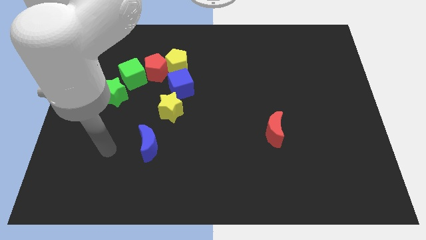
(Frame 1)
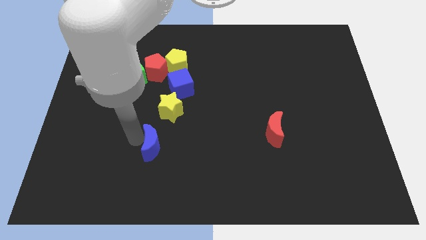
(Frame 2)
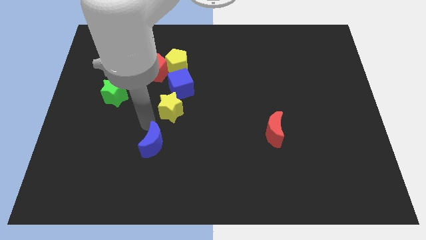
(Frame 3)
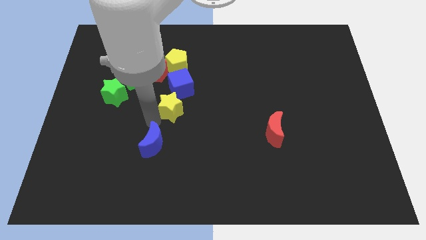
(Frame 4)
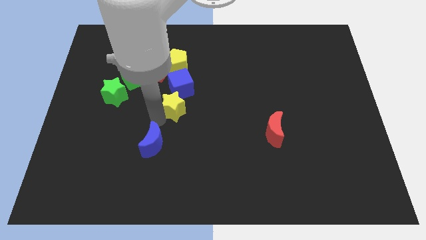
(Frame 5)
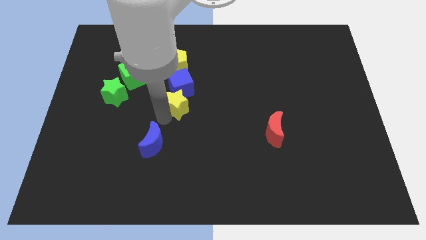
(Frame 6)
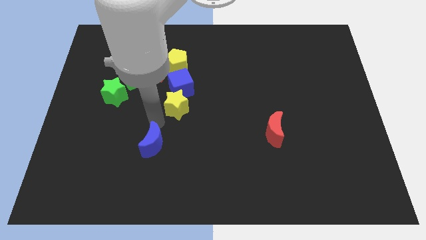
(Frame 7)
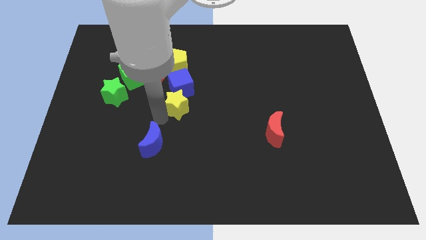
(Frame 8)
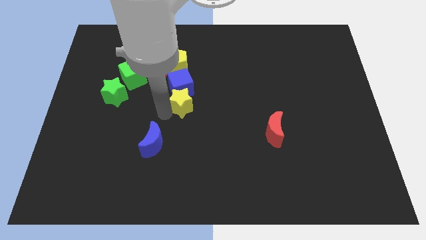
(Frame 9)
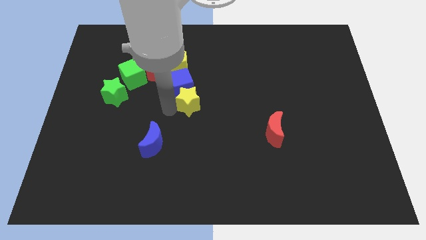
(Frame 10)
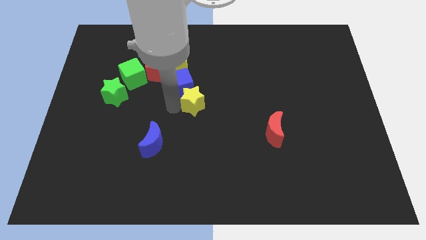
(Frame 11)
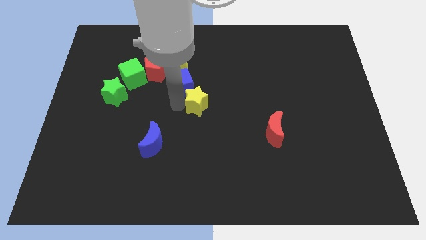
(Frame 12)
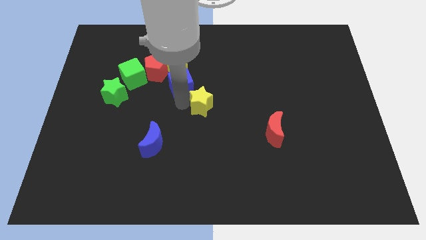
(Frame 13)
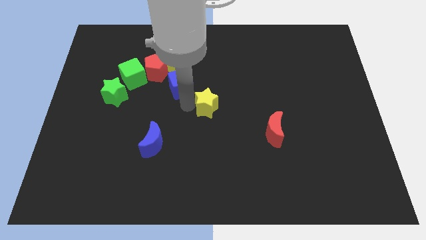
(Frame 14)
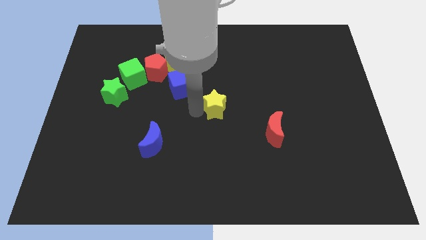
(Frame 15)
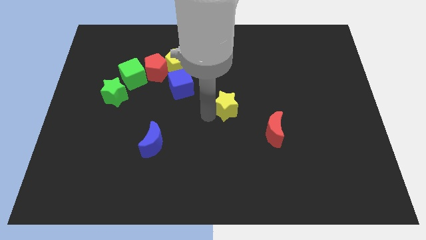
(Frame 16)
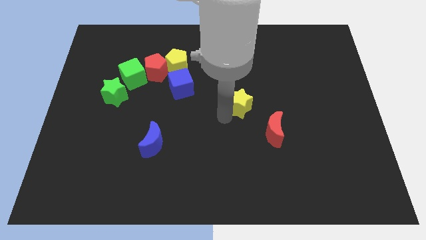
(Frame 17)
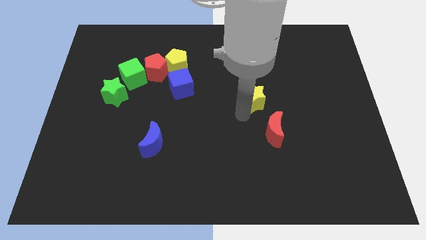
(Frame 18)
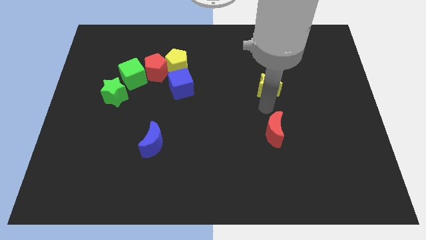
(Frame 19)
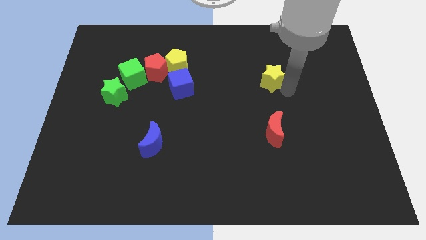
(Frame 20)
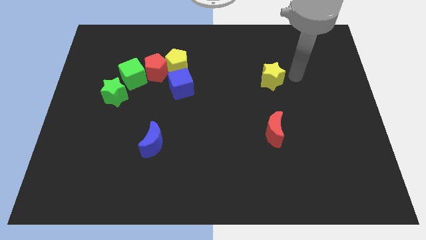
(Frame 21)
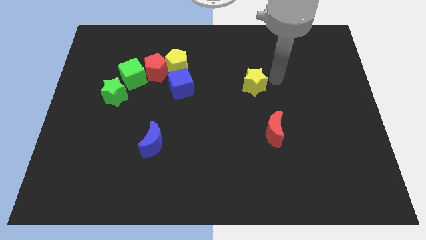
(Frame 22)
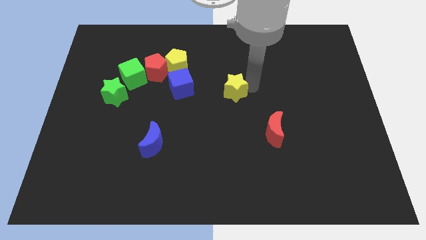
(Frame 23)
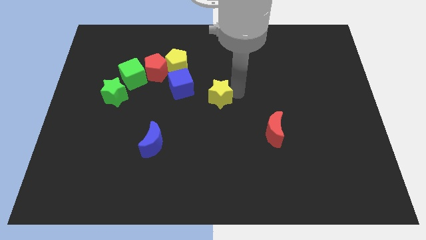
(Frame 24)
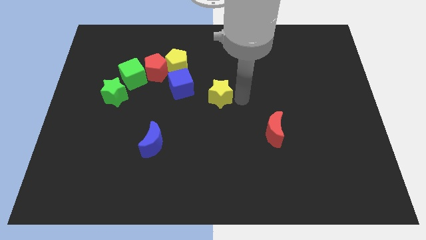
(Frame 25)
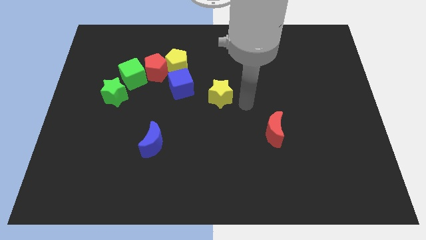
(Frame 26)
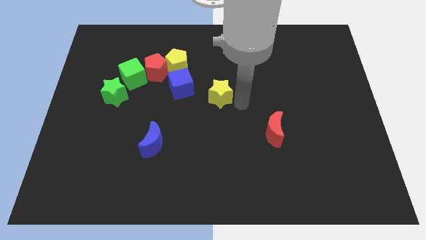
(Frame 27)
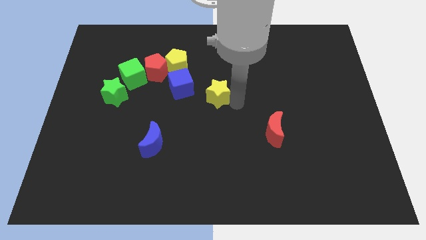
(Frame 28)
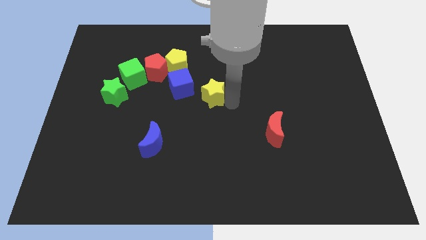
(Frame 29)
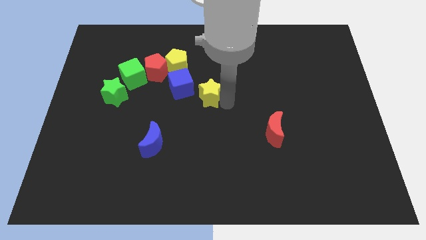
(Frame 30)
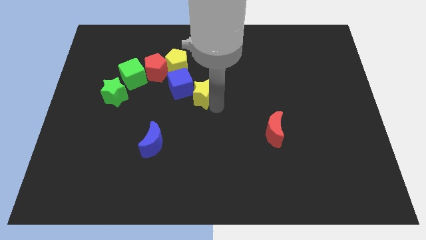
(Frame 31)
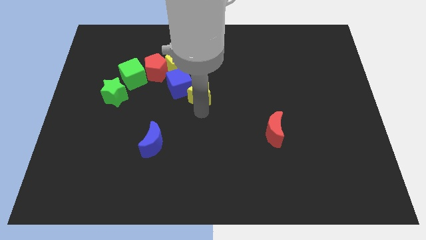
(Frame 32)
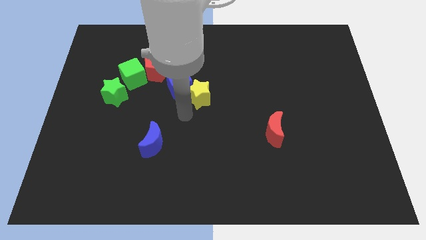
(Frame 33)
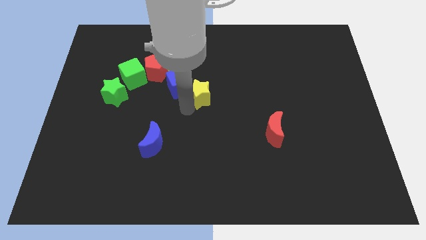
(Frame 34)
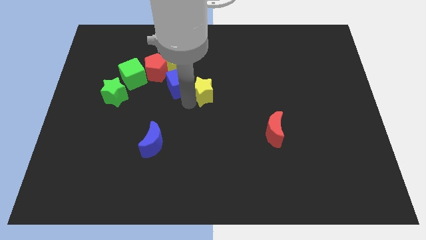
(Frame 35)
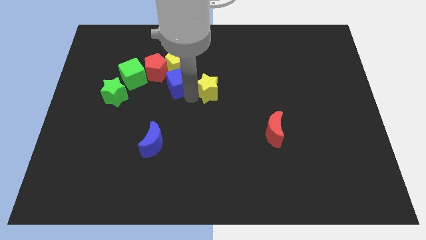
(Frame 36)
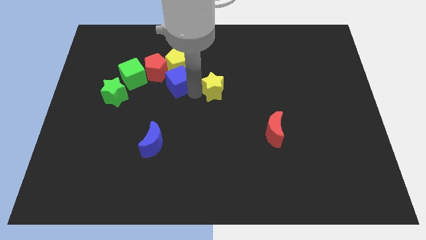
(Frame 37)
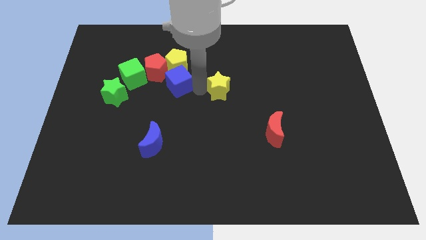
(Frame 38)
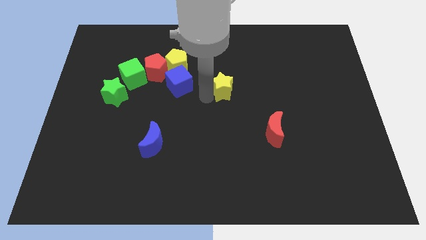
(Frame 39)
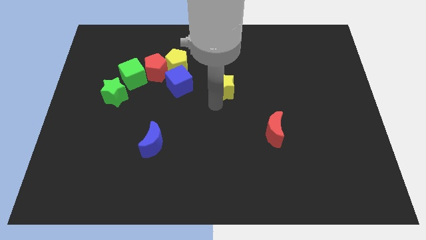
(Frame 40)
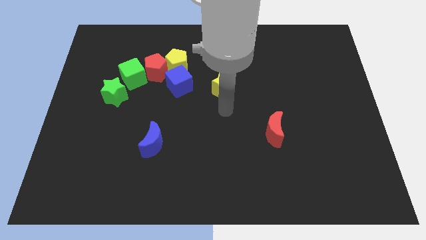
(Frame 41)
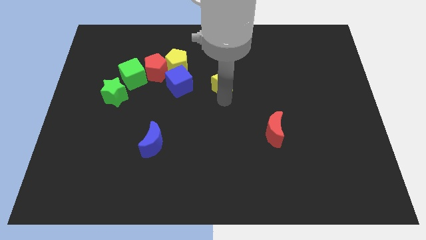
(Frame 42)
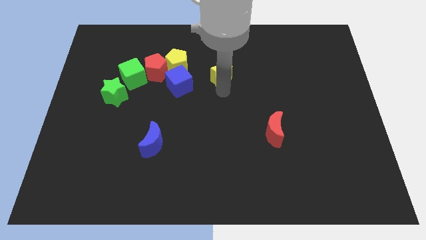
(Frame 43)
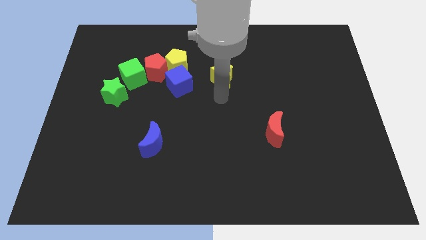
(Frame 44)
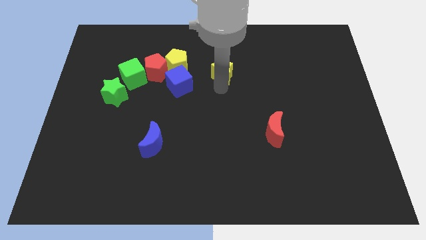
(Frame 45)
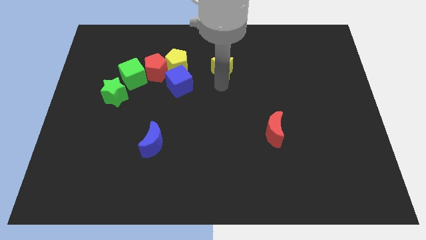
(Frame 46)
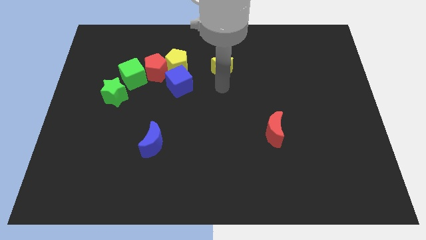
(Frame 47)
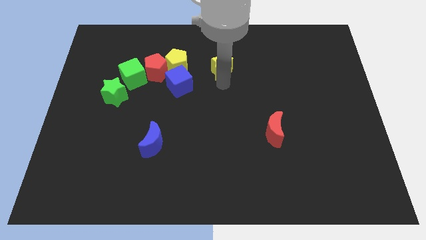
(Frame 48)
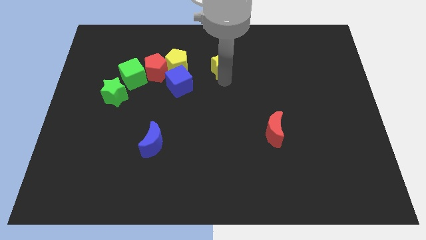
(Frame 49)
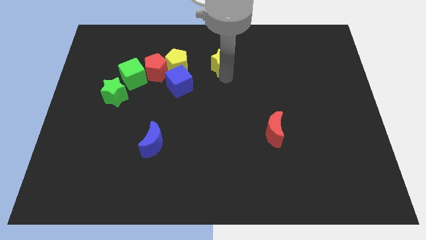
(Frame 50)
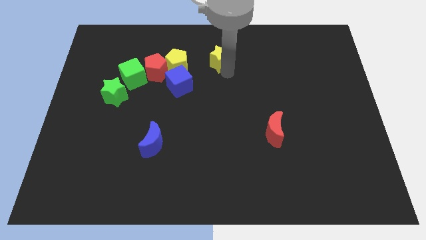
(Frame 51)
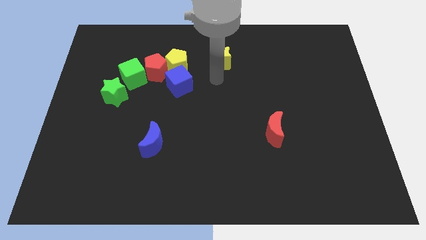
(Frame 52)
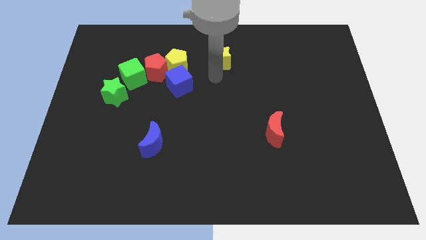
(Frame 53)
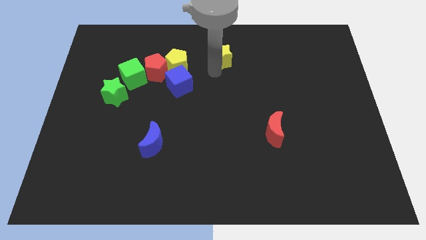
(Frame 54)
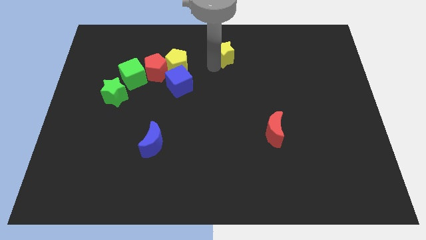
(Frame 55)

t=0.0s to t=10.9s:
slide the yellow star to the towards your base

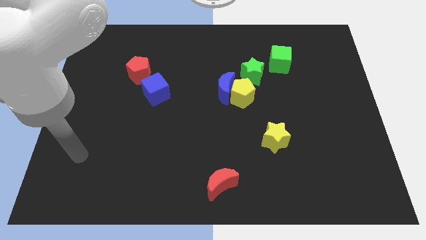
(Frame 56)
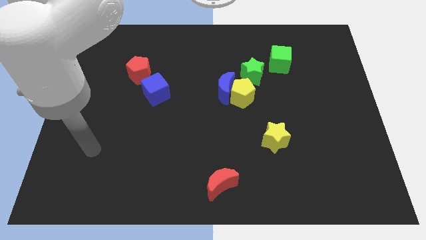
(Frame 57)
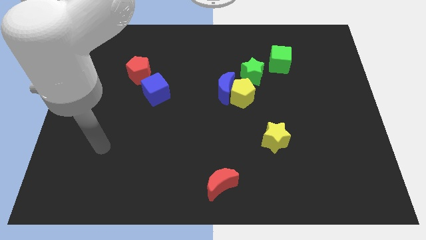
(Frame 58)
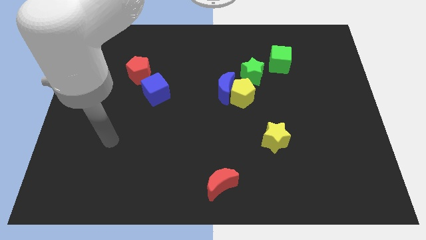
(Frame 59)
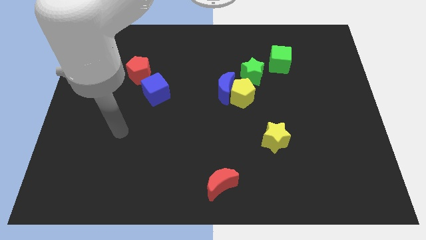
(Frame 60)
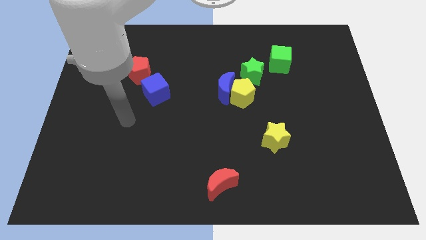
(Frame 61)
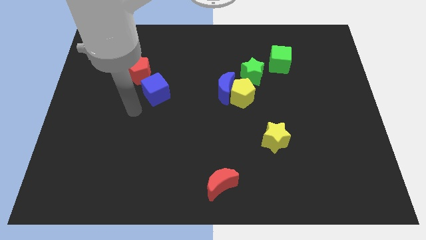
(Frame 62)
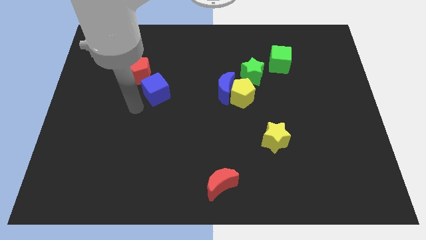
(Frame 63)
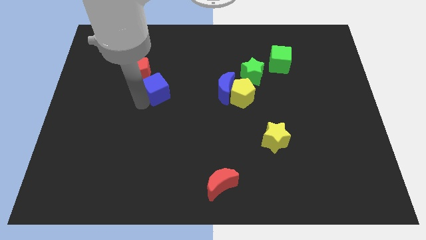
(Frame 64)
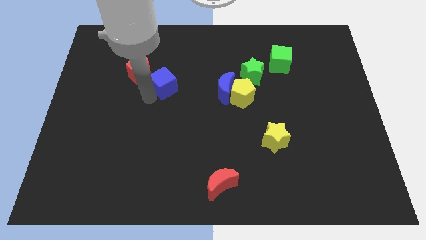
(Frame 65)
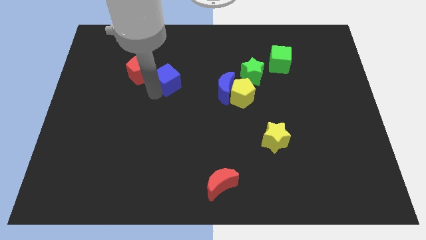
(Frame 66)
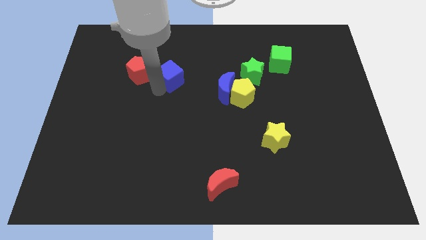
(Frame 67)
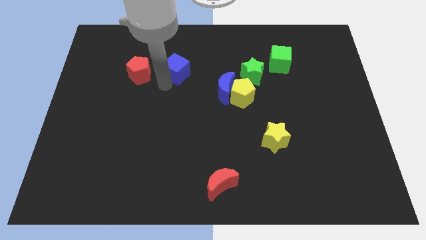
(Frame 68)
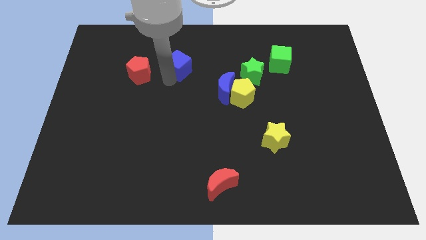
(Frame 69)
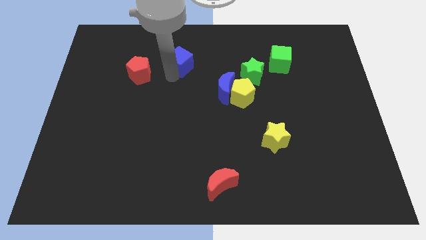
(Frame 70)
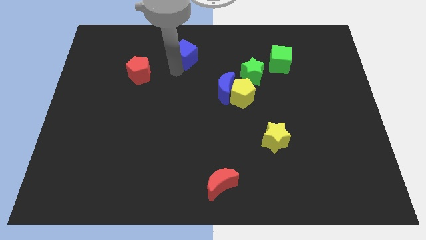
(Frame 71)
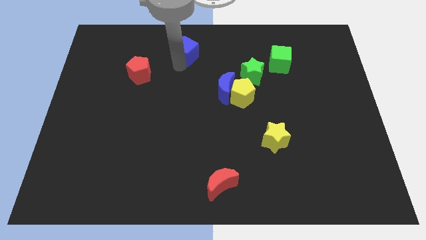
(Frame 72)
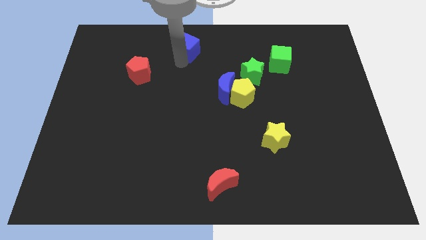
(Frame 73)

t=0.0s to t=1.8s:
put the blue cube to the top
